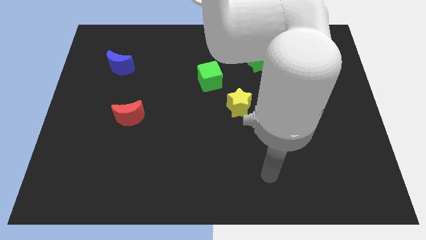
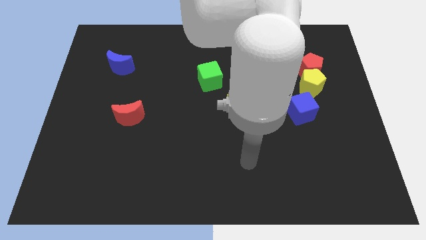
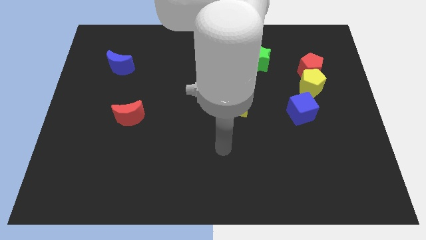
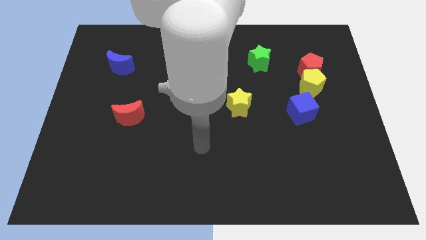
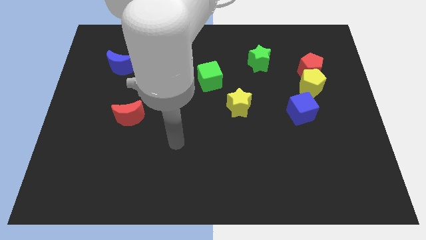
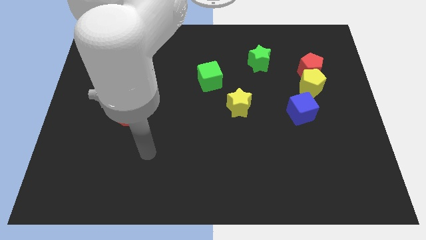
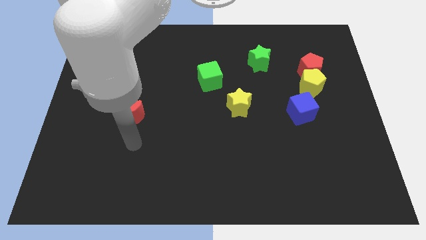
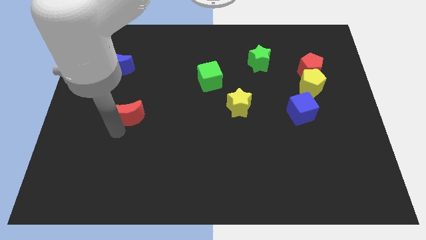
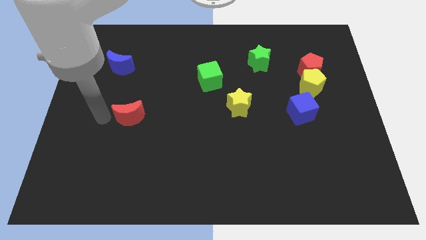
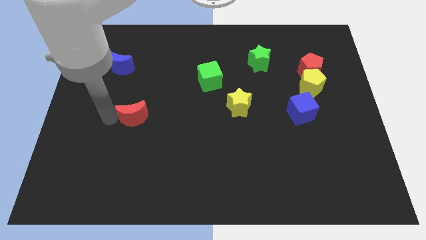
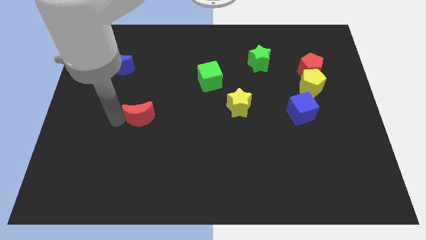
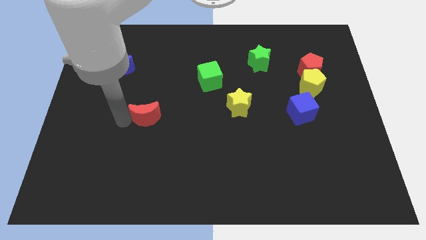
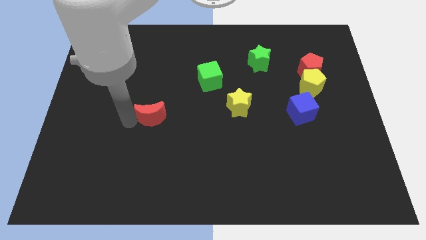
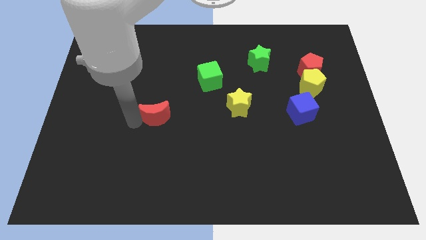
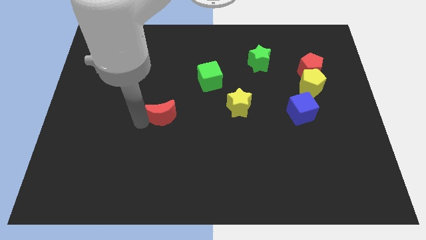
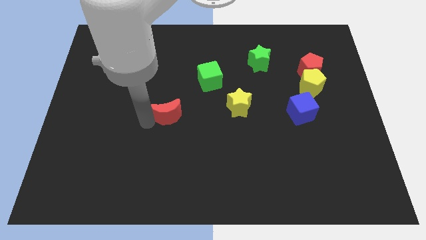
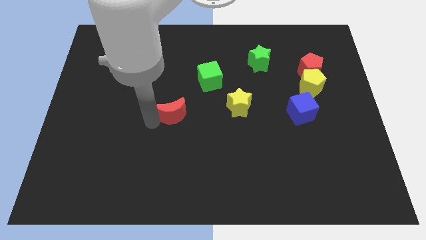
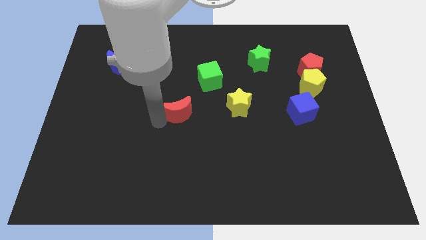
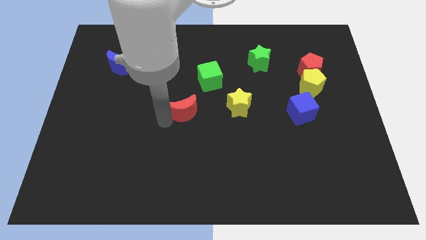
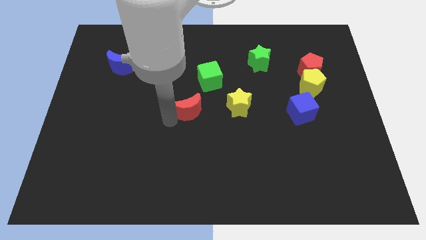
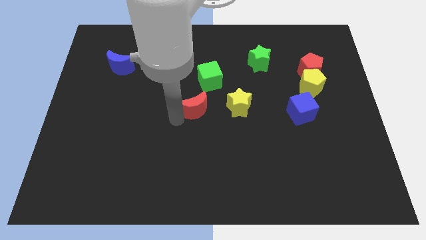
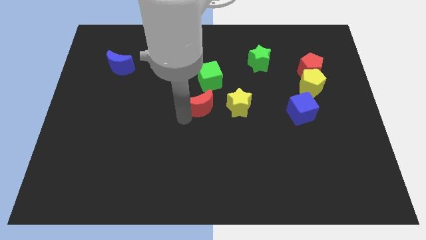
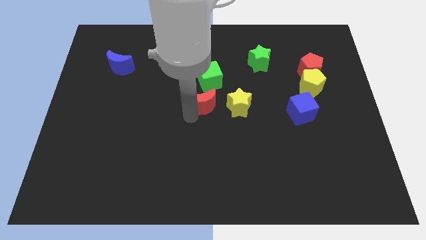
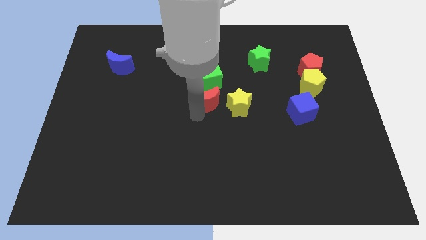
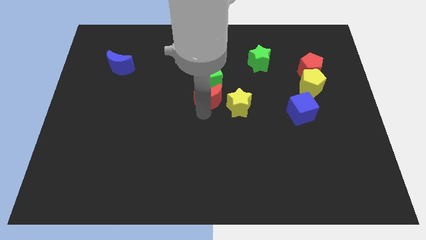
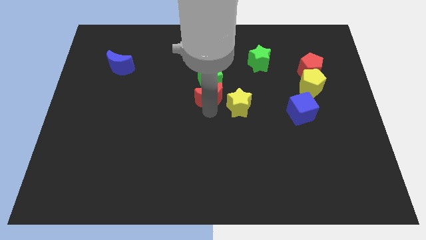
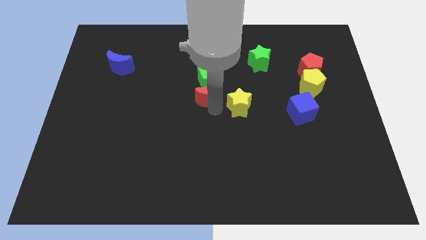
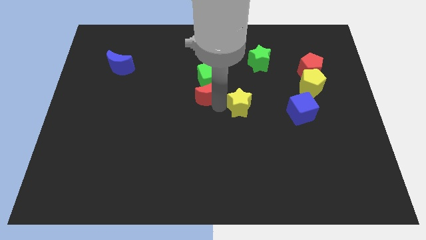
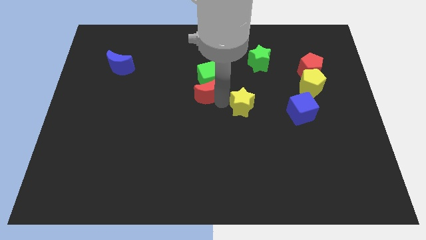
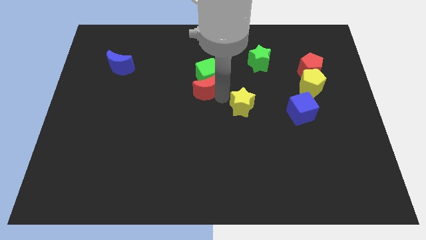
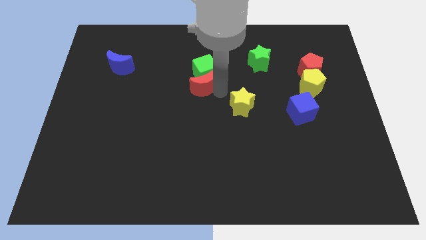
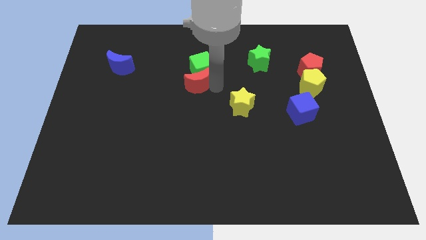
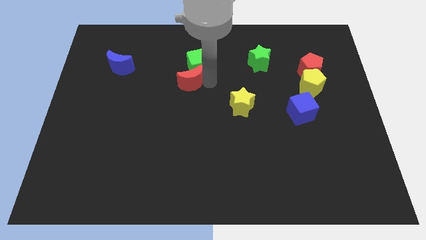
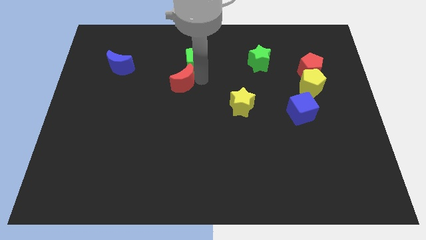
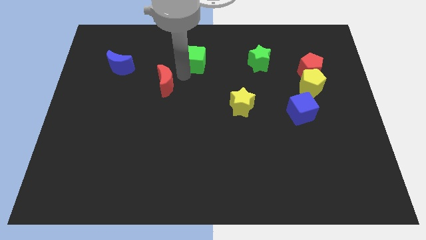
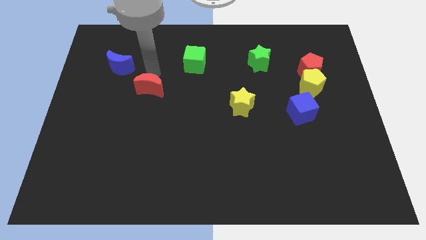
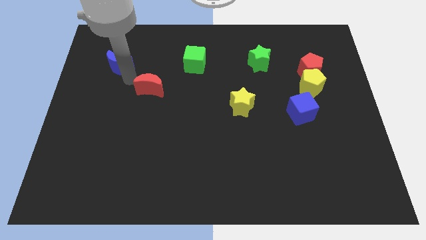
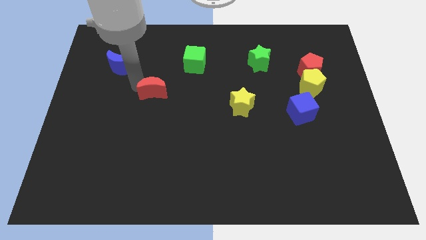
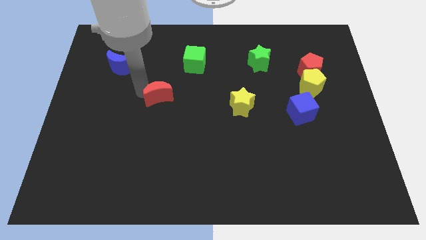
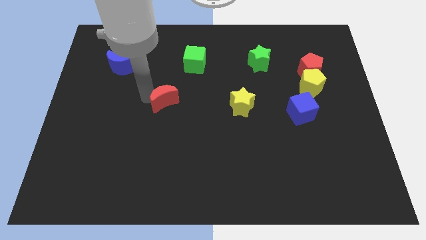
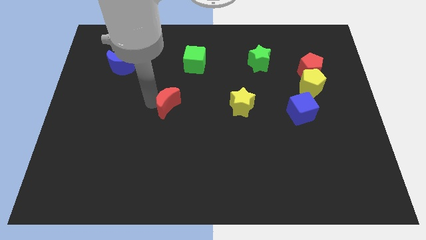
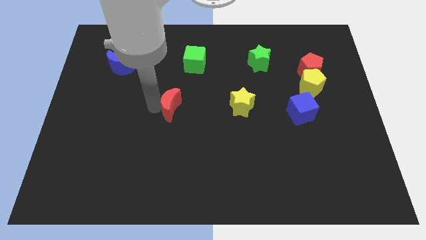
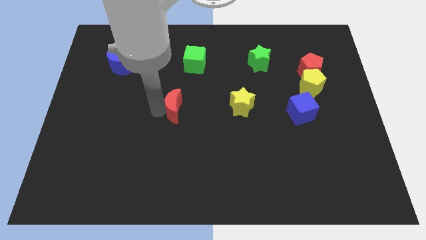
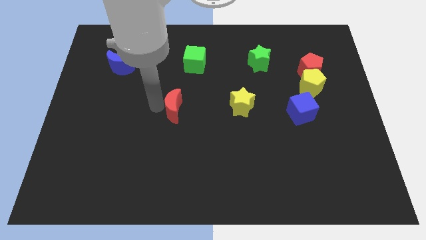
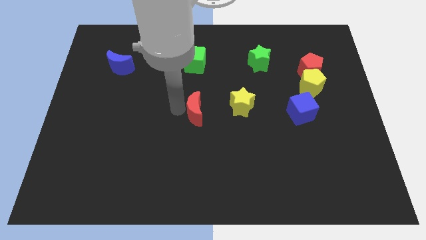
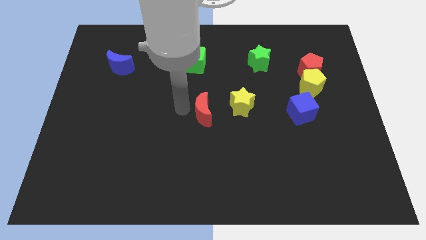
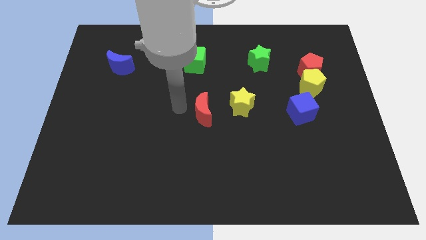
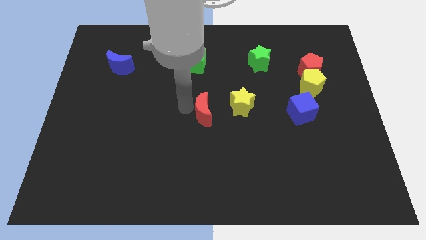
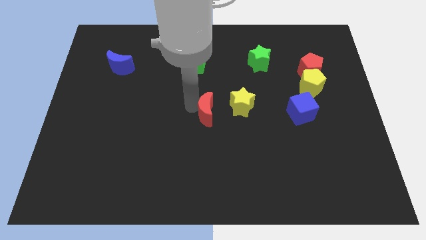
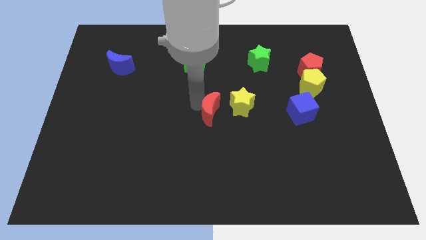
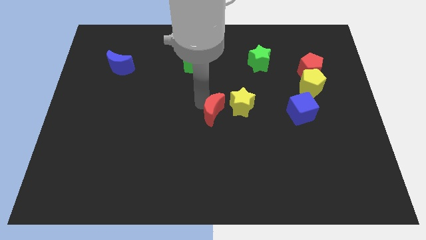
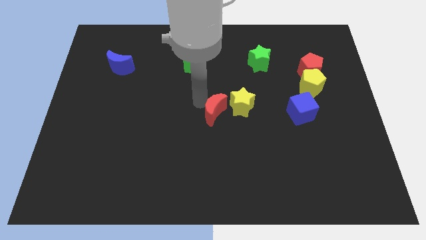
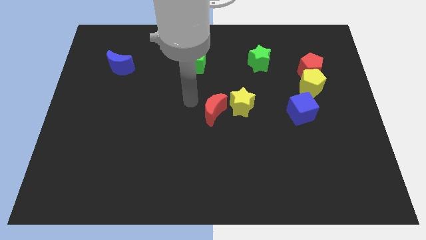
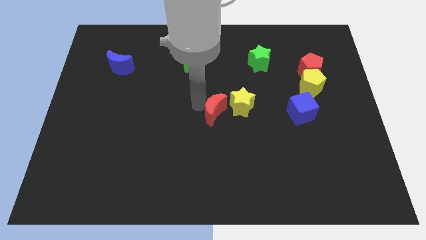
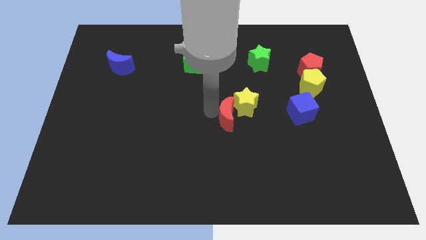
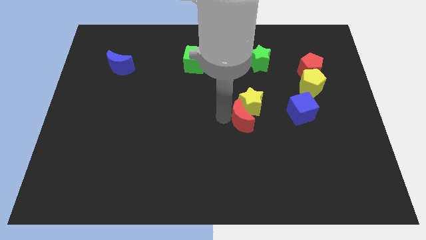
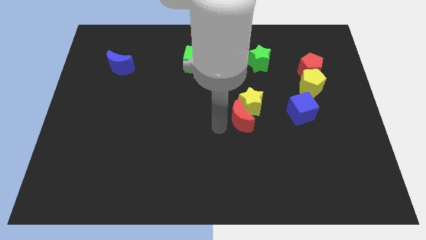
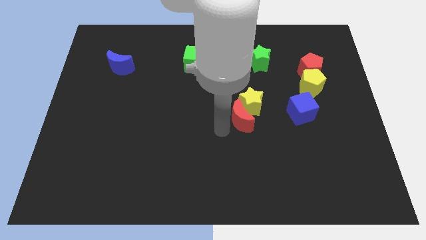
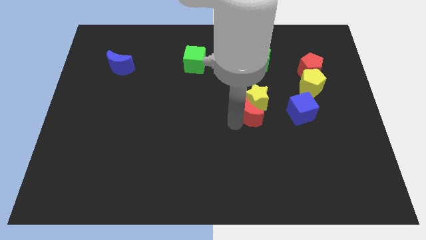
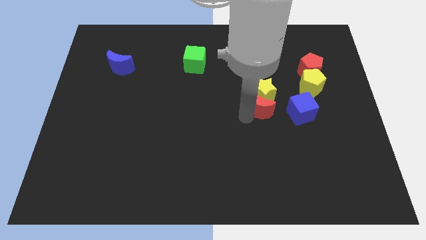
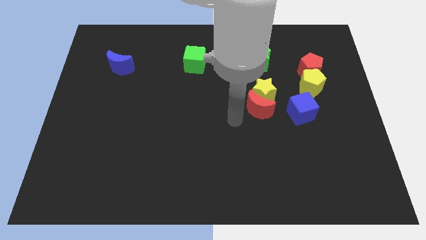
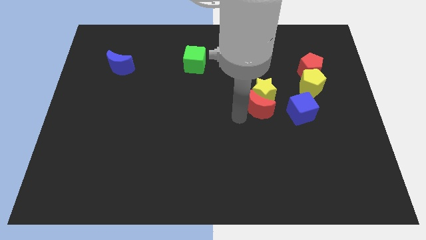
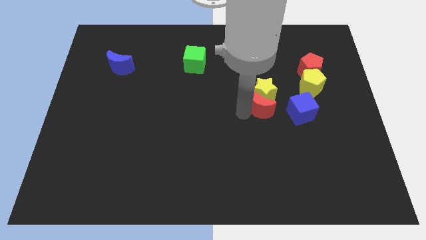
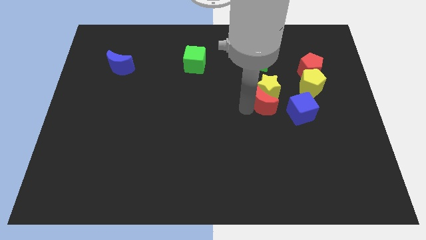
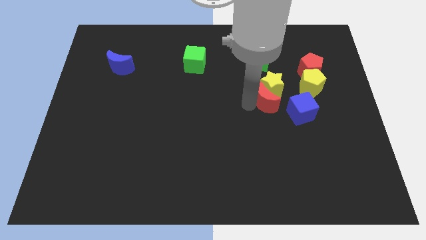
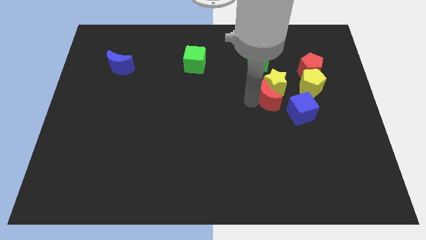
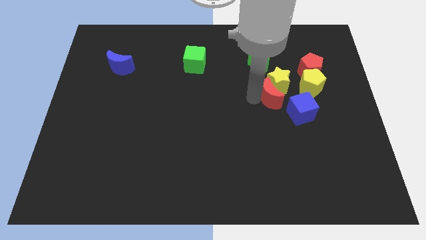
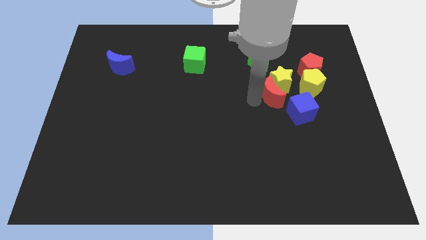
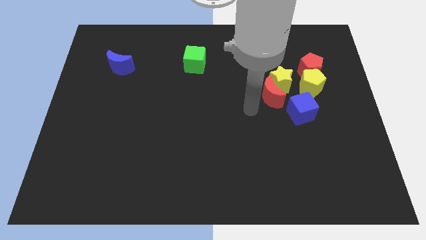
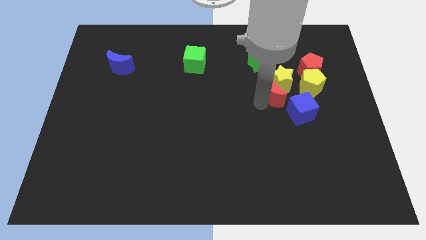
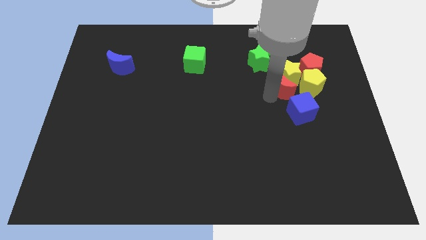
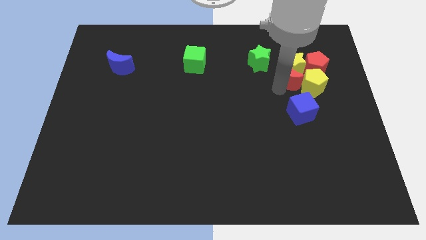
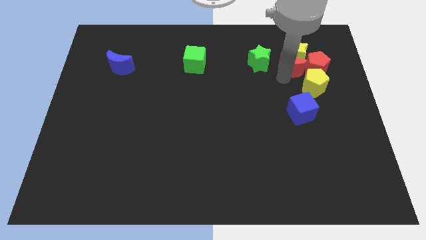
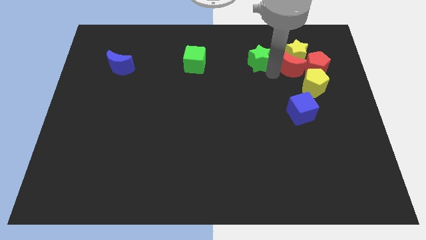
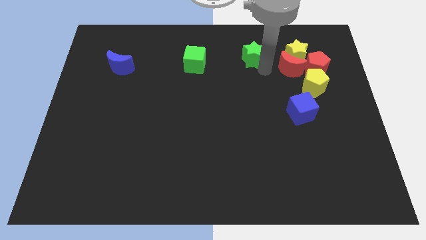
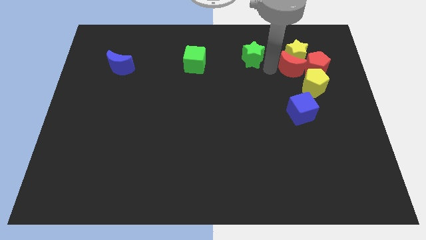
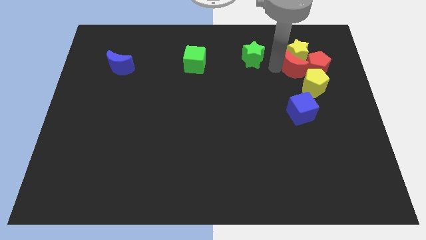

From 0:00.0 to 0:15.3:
slide the red moon to the red pentagon
